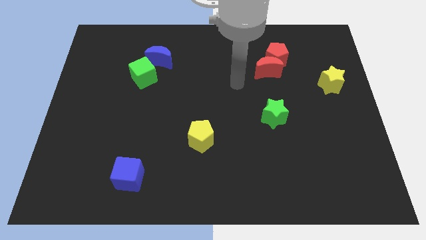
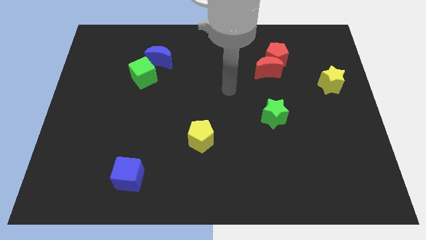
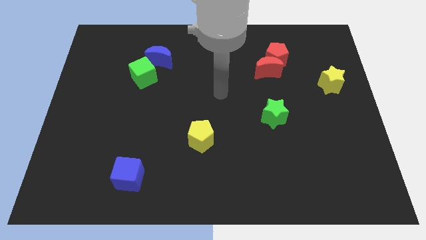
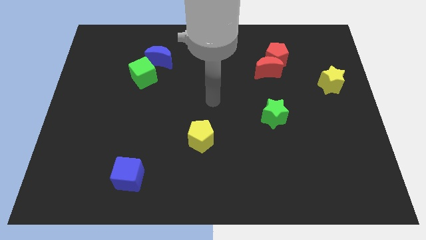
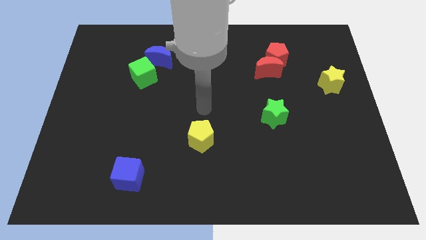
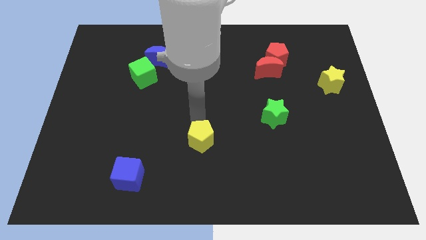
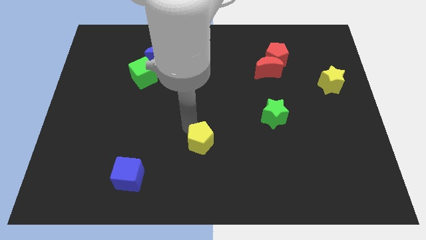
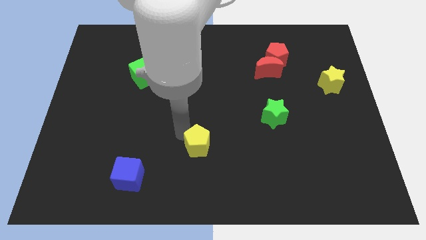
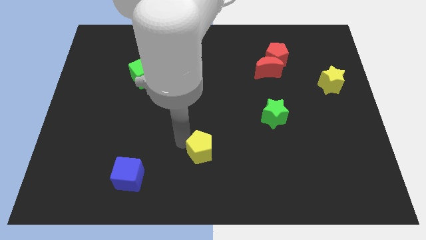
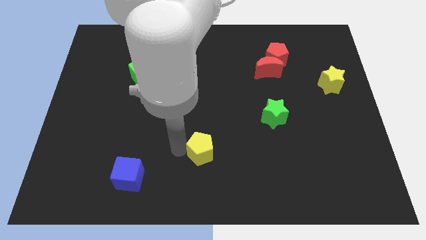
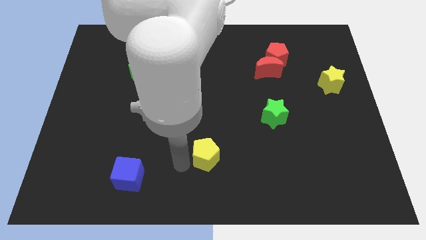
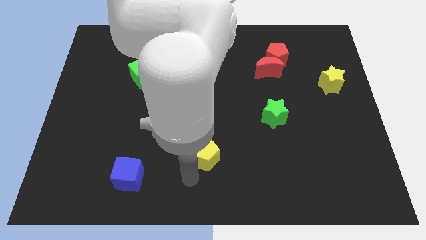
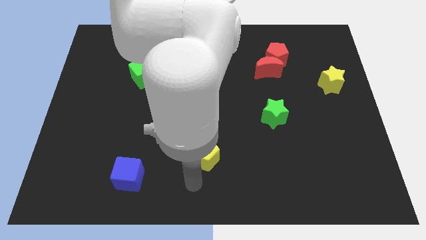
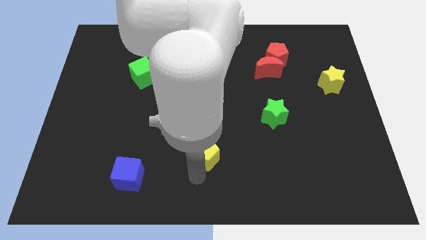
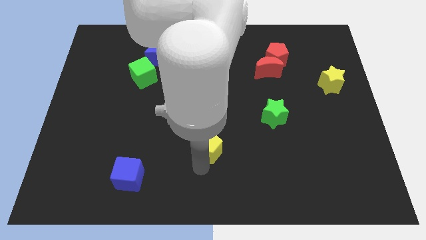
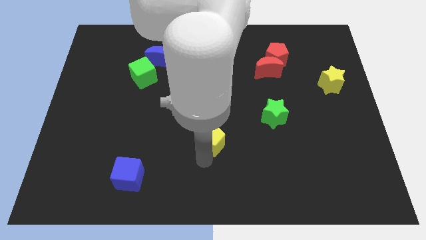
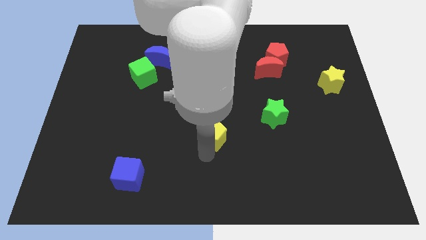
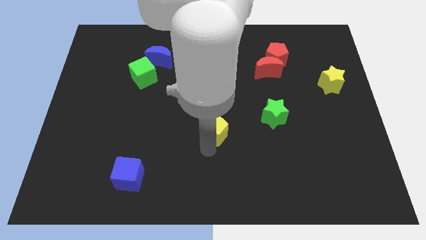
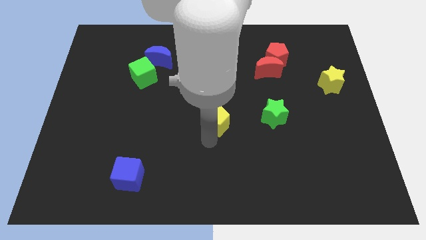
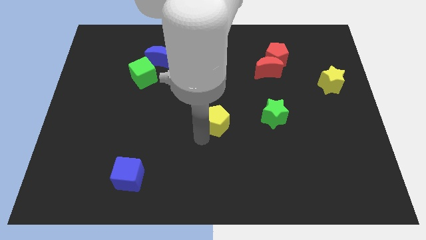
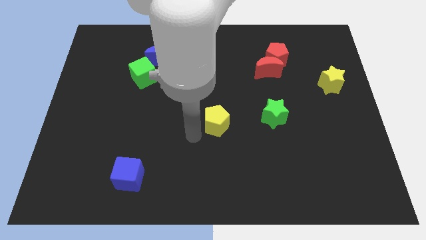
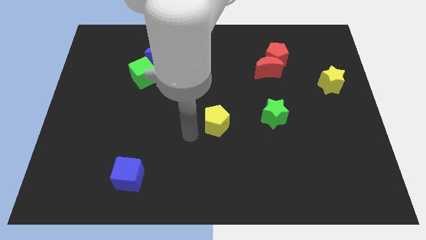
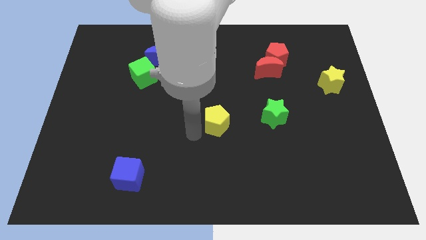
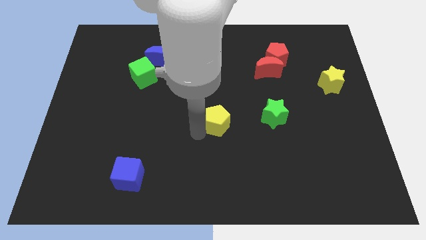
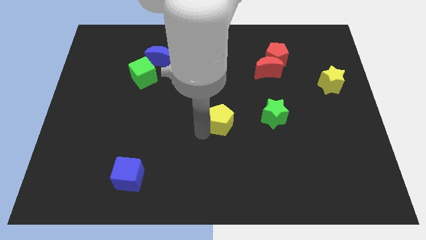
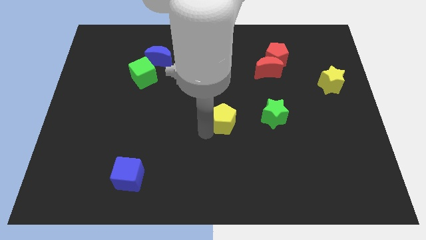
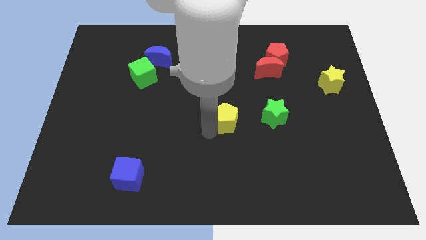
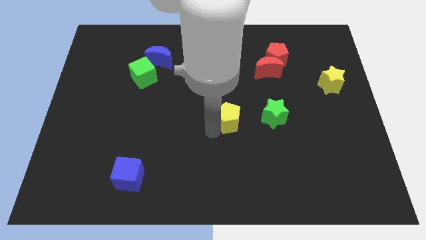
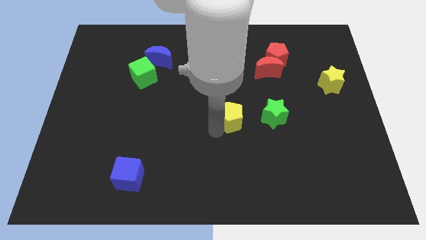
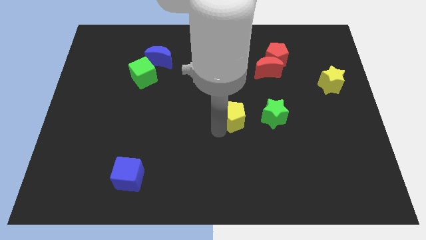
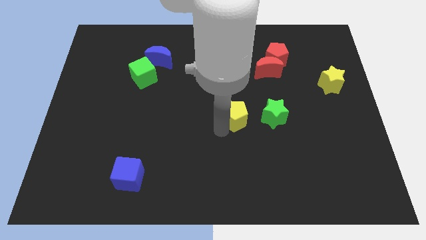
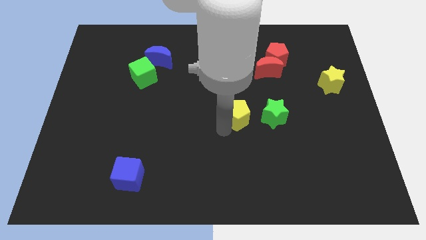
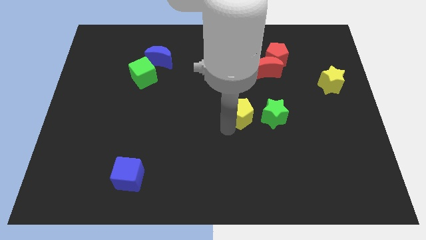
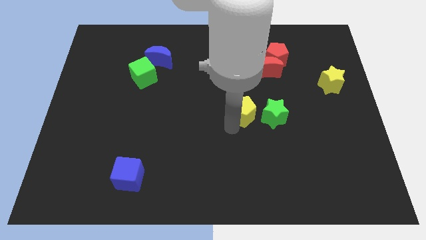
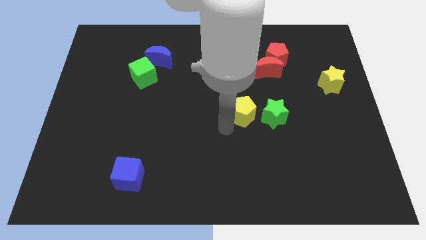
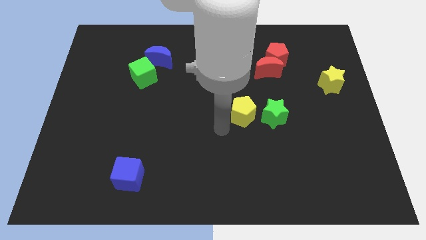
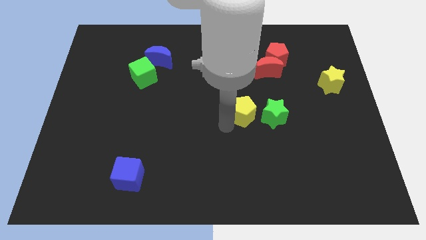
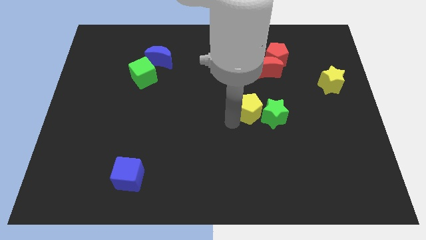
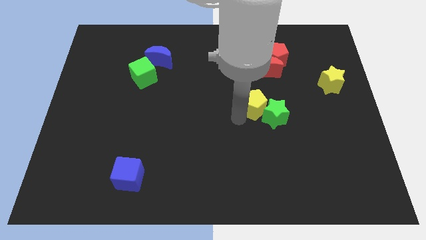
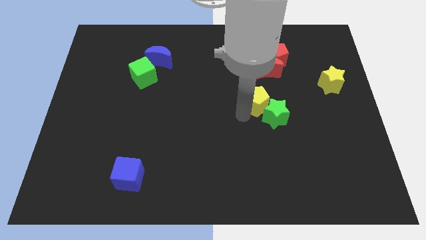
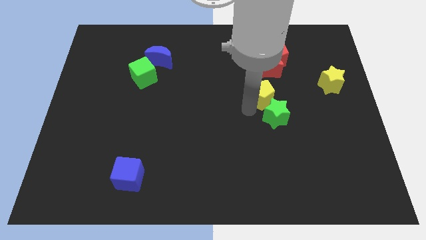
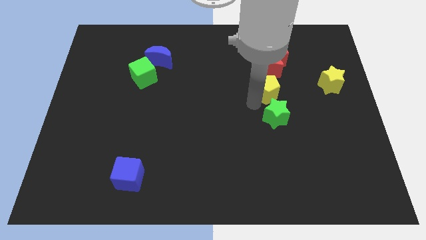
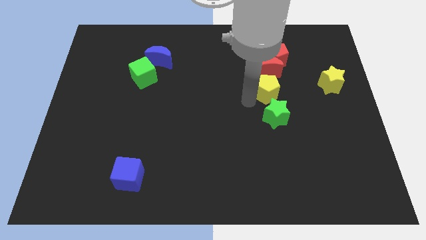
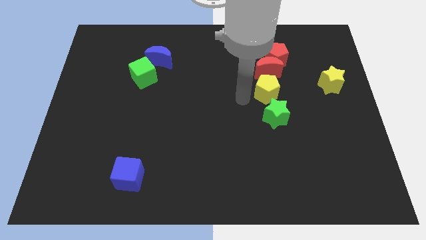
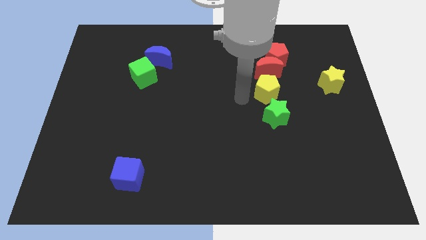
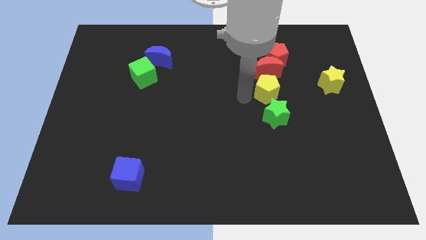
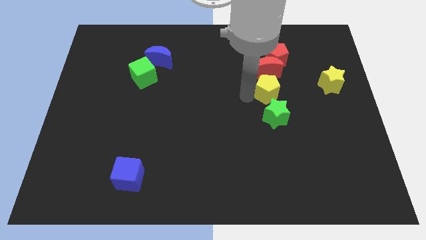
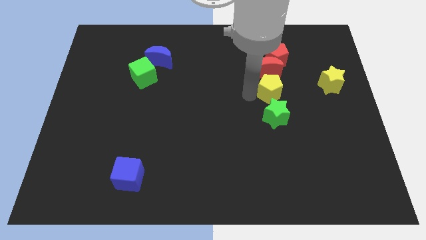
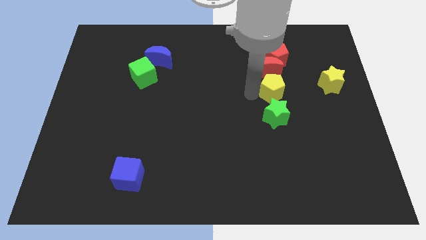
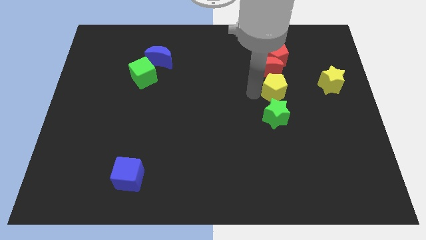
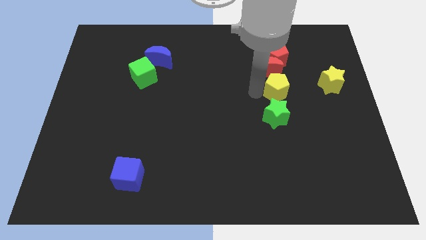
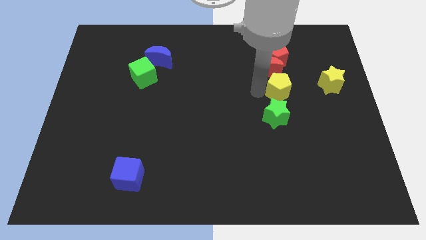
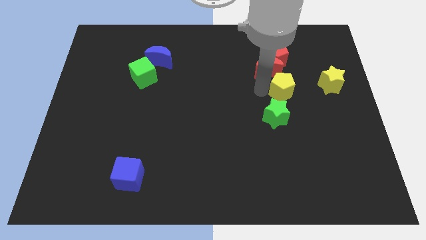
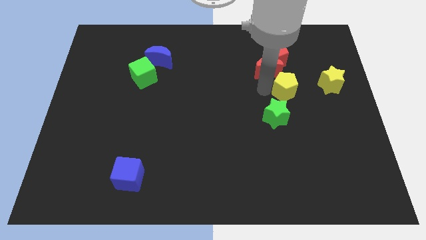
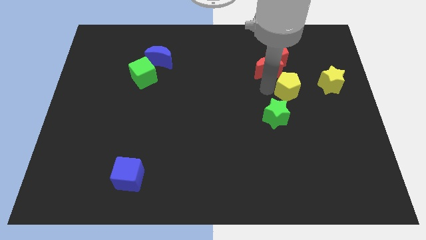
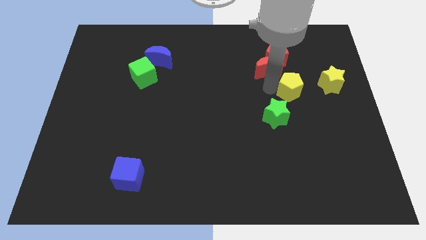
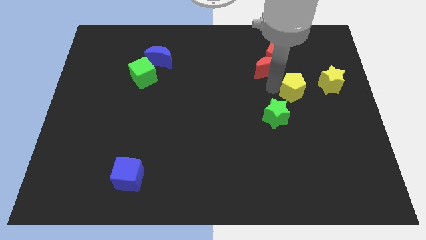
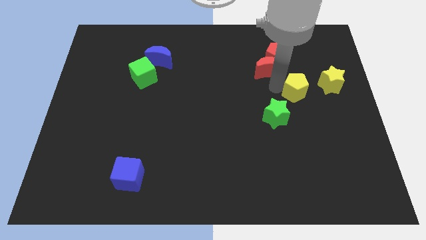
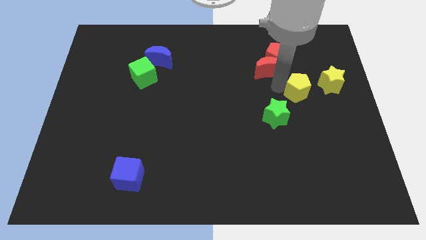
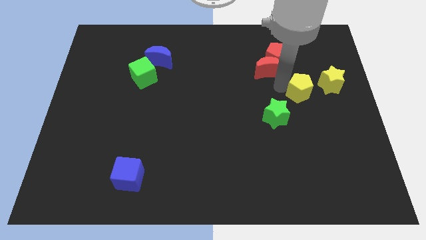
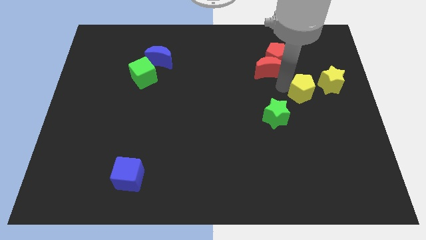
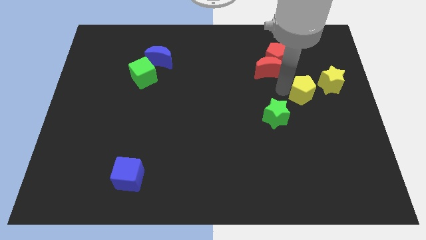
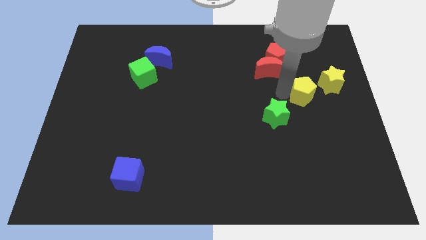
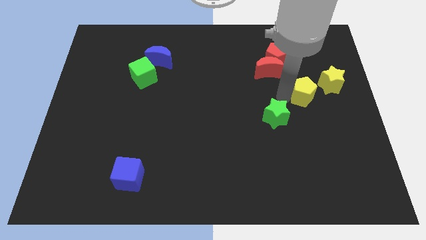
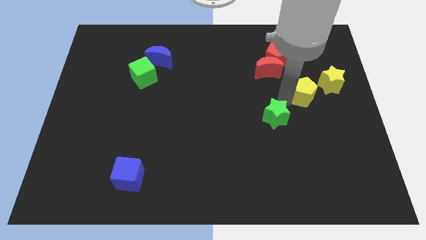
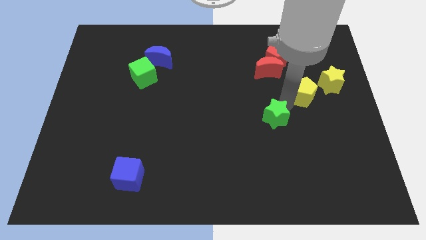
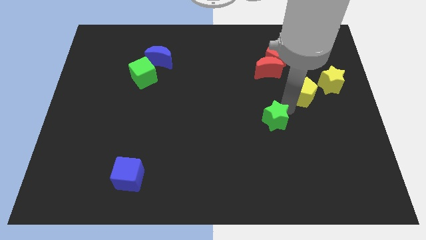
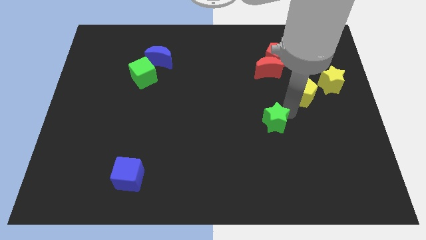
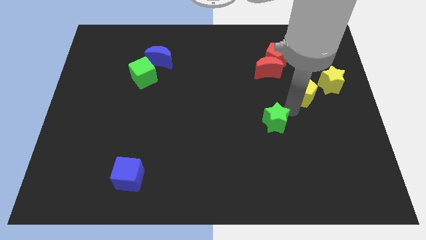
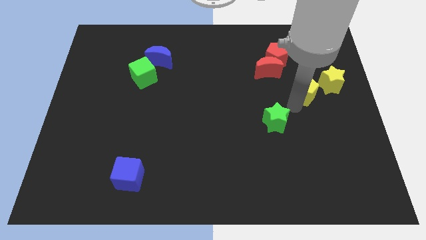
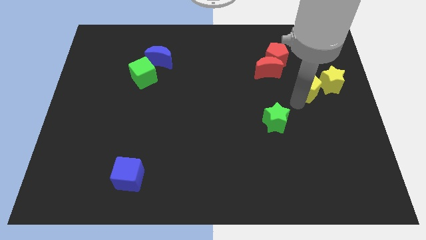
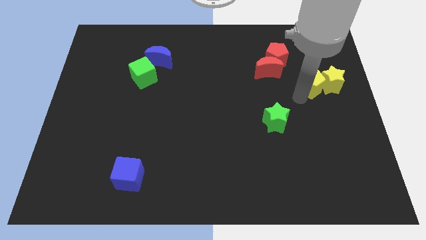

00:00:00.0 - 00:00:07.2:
move the yellow pentagon to the yellow star
